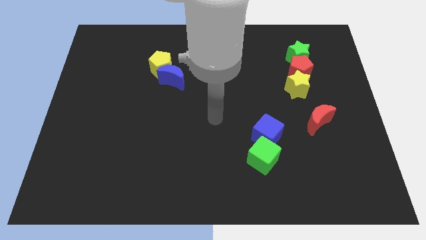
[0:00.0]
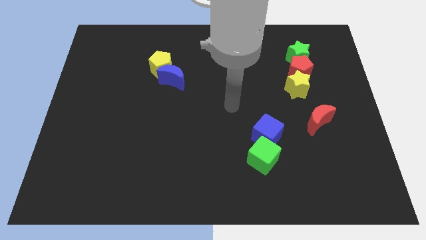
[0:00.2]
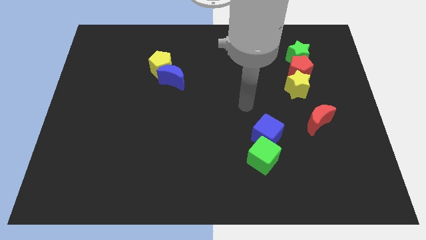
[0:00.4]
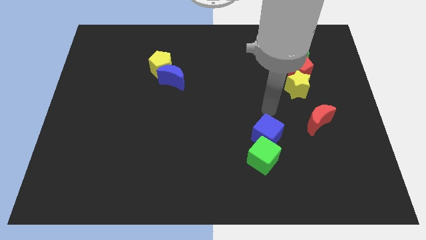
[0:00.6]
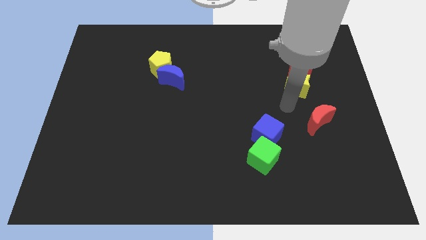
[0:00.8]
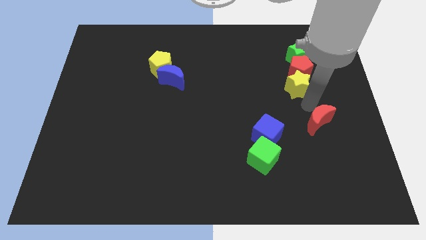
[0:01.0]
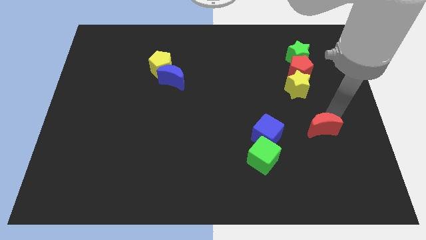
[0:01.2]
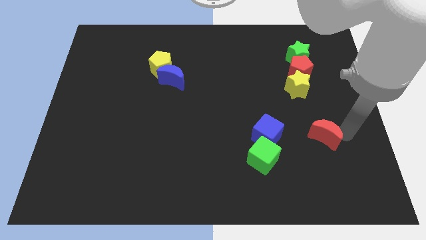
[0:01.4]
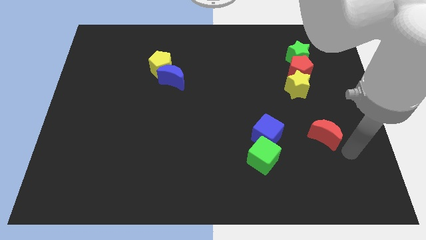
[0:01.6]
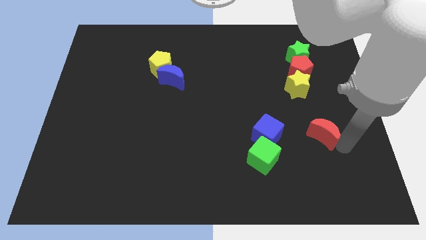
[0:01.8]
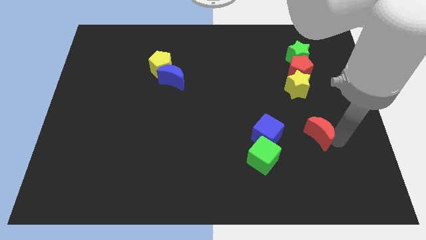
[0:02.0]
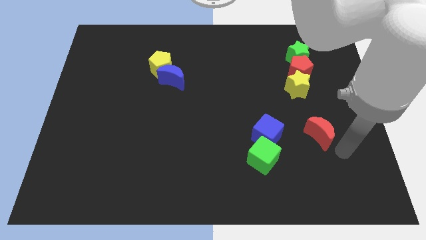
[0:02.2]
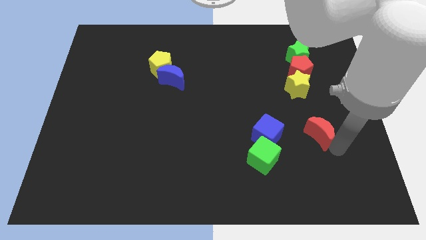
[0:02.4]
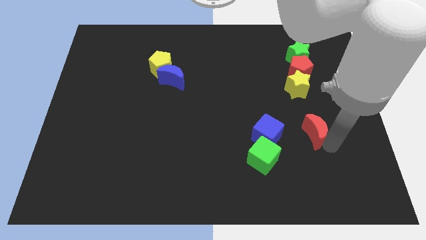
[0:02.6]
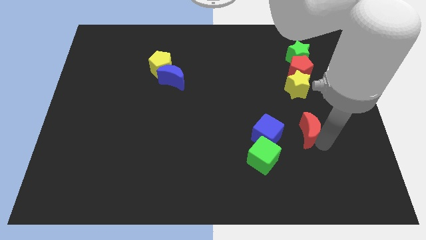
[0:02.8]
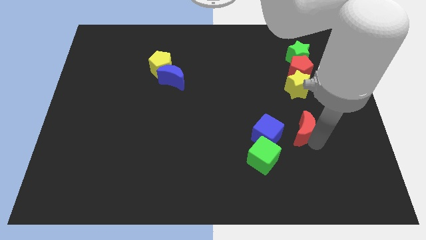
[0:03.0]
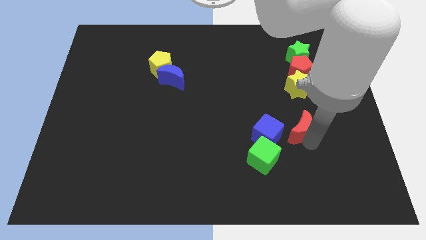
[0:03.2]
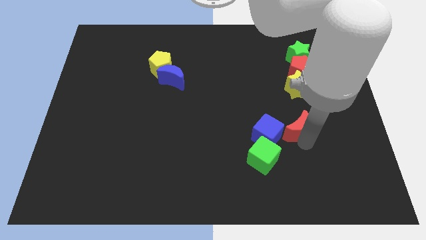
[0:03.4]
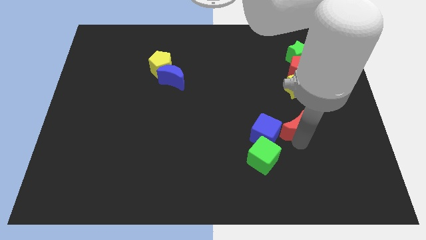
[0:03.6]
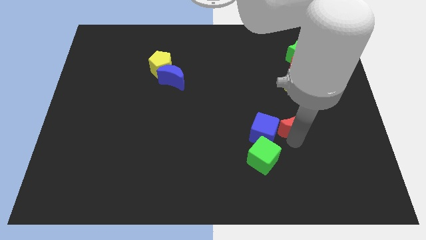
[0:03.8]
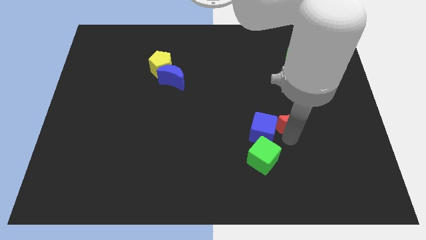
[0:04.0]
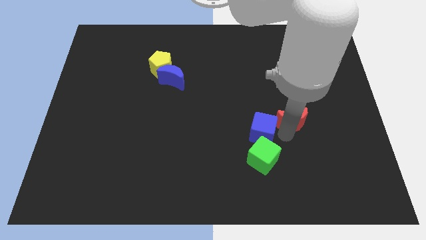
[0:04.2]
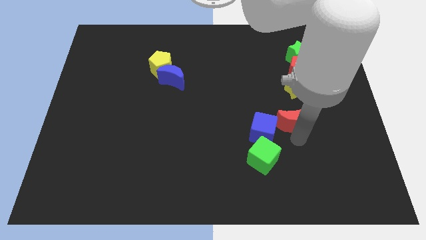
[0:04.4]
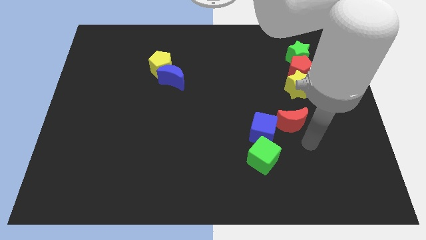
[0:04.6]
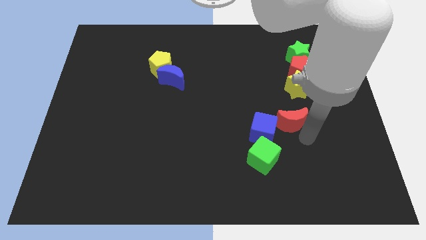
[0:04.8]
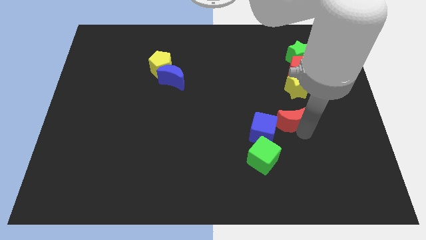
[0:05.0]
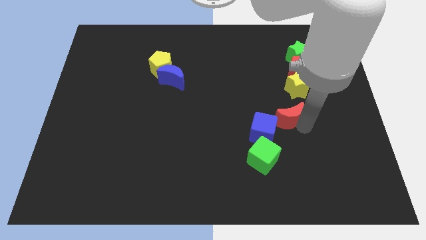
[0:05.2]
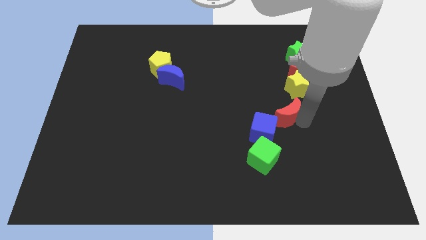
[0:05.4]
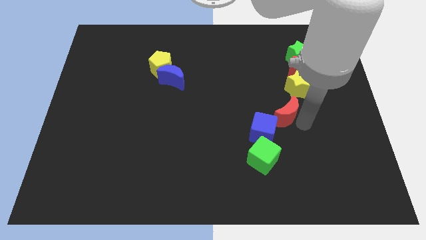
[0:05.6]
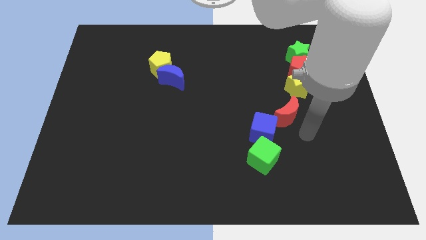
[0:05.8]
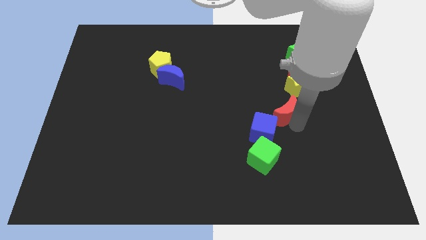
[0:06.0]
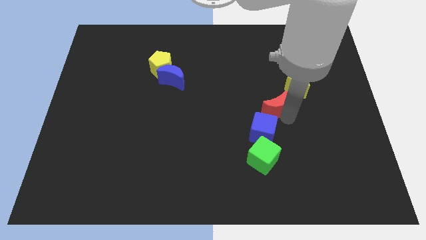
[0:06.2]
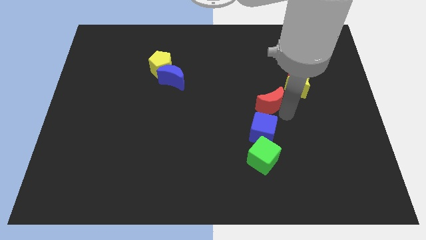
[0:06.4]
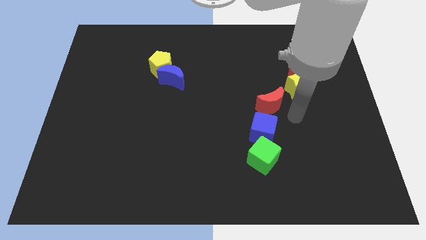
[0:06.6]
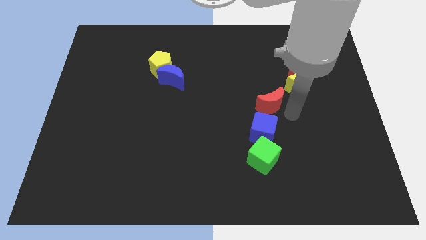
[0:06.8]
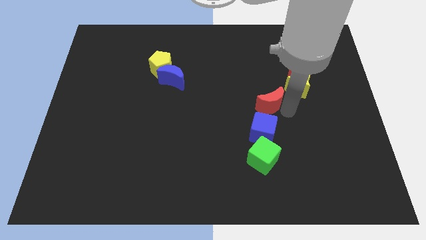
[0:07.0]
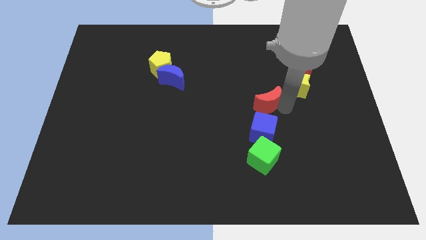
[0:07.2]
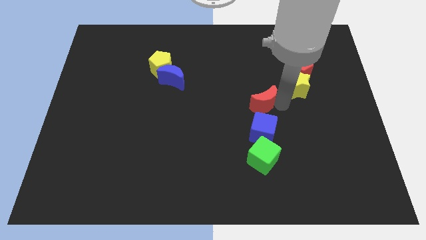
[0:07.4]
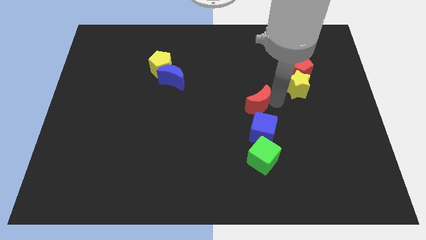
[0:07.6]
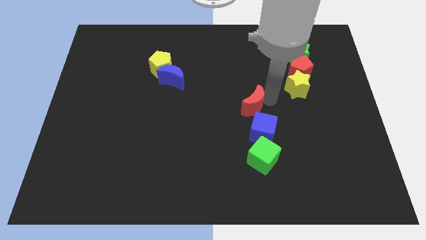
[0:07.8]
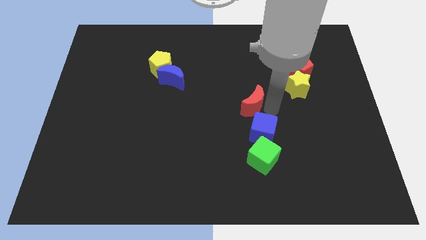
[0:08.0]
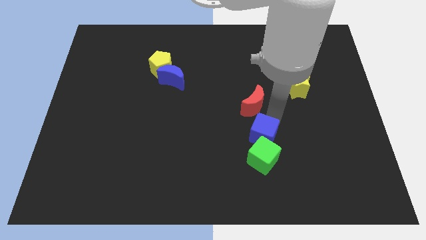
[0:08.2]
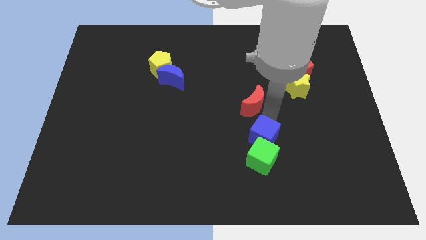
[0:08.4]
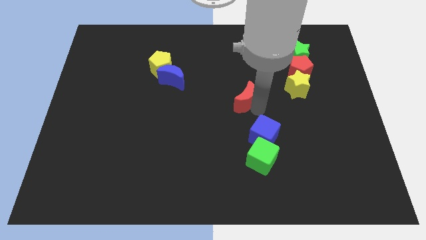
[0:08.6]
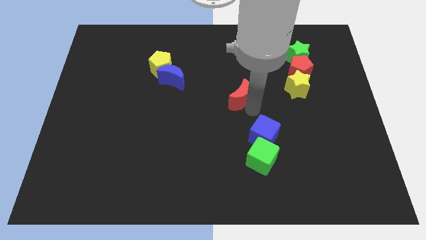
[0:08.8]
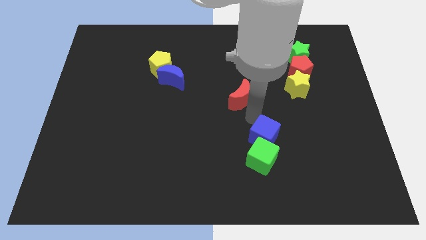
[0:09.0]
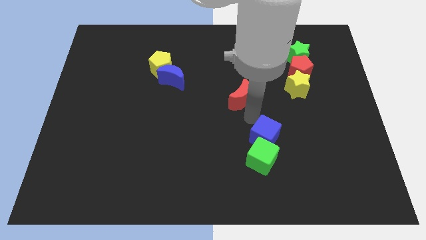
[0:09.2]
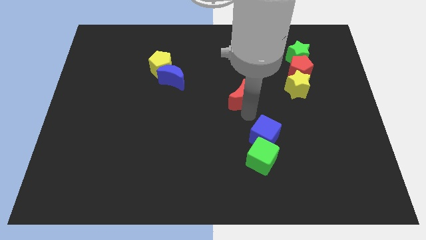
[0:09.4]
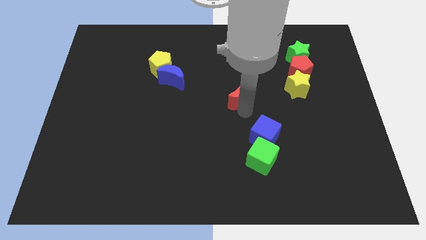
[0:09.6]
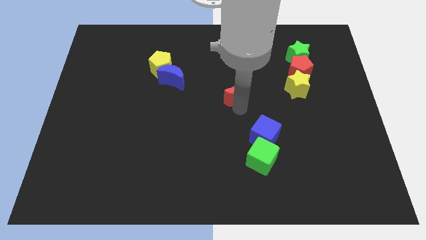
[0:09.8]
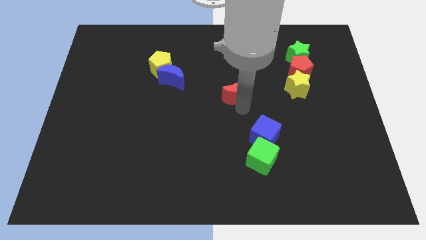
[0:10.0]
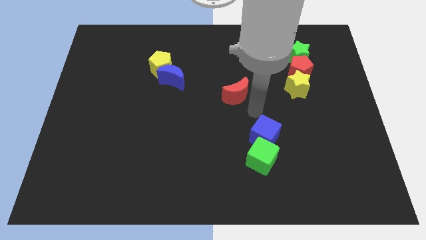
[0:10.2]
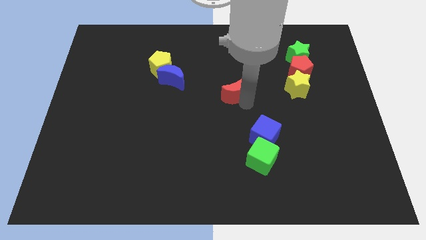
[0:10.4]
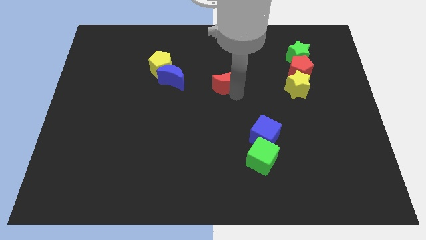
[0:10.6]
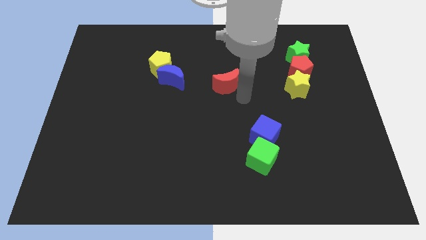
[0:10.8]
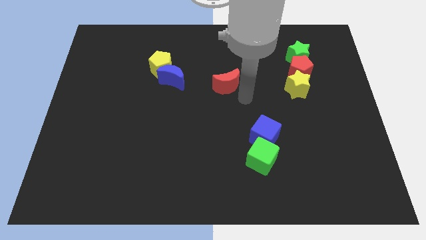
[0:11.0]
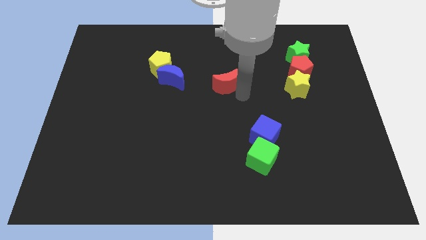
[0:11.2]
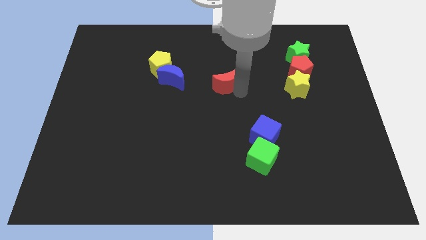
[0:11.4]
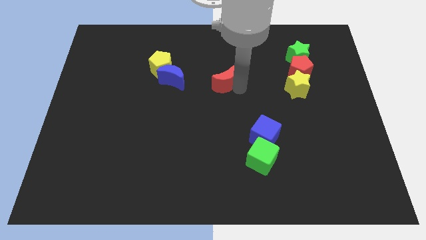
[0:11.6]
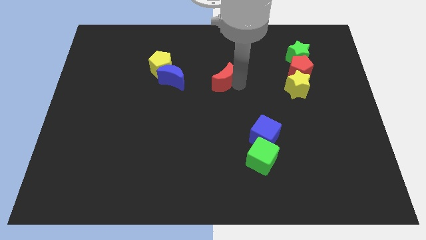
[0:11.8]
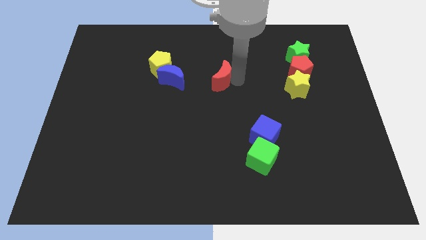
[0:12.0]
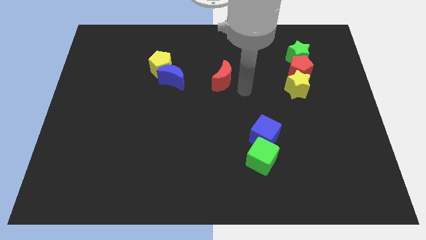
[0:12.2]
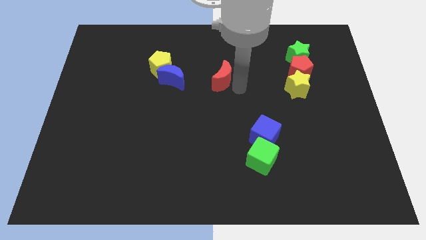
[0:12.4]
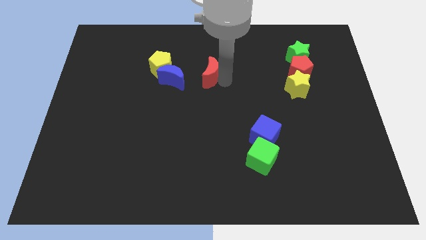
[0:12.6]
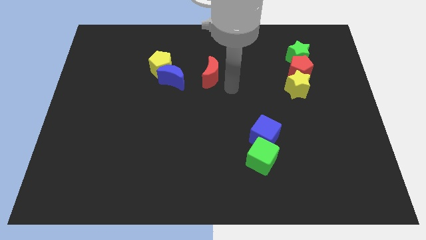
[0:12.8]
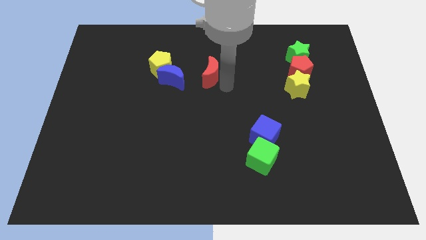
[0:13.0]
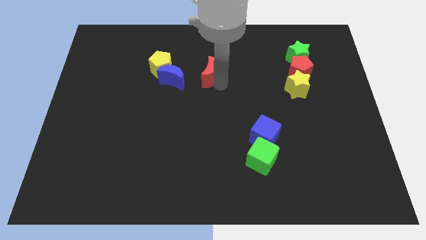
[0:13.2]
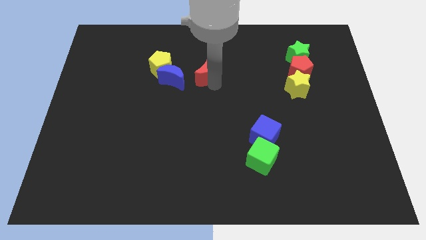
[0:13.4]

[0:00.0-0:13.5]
slide the red moon diagonally up and to the right of the blue moon
